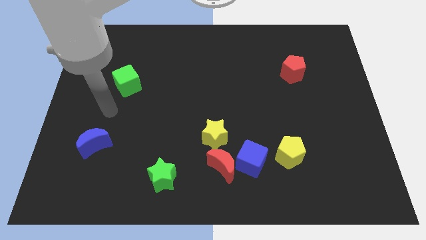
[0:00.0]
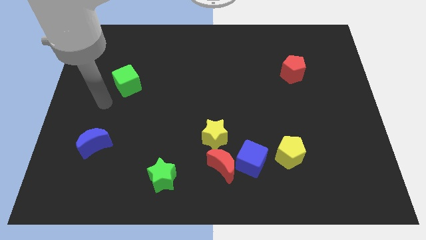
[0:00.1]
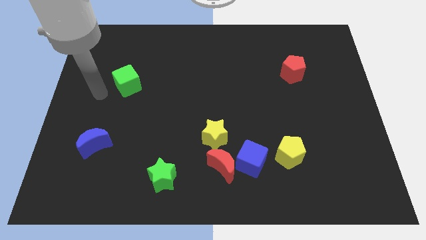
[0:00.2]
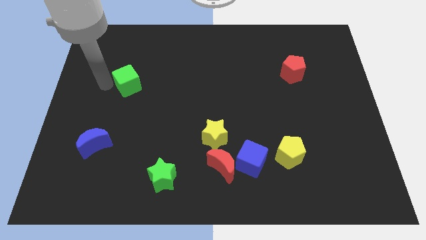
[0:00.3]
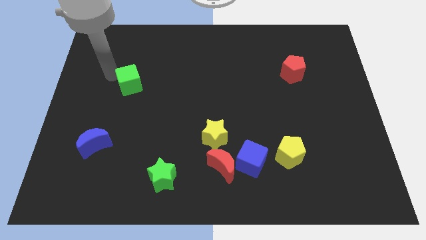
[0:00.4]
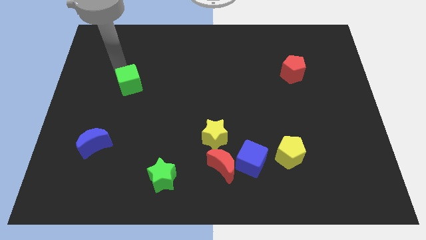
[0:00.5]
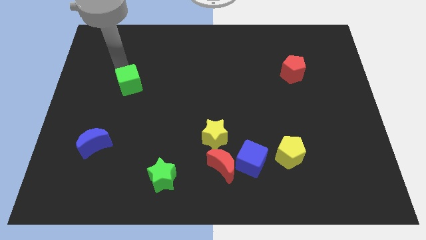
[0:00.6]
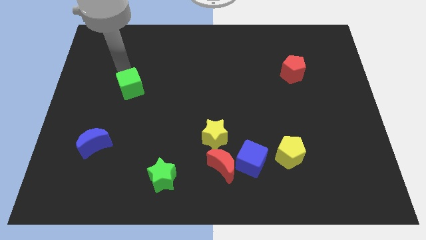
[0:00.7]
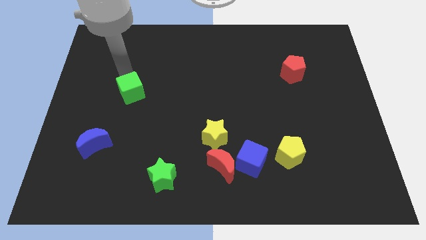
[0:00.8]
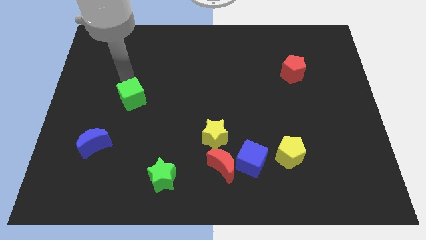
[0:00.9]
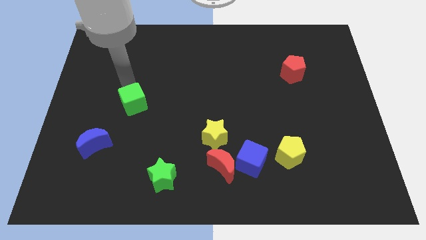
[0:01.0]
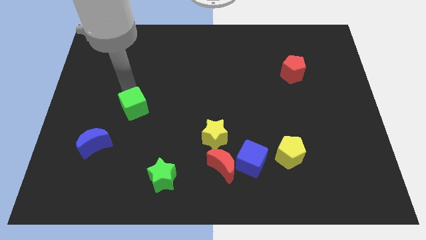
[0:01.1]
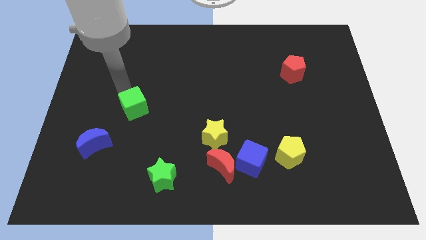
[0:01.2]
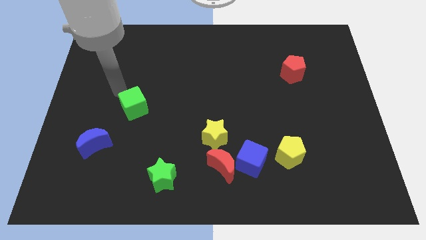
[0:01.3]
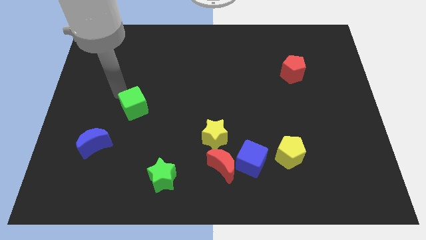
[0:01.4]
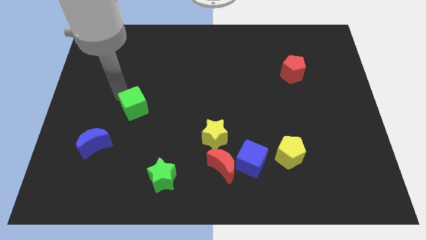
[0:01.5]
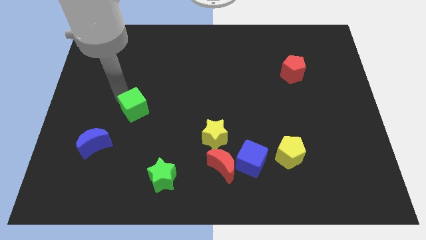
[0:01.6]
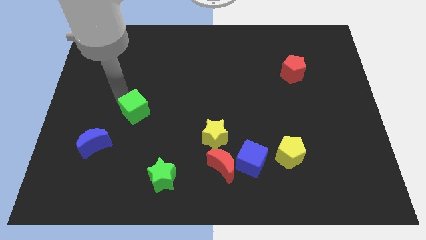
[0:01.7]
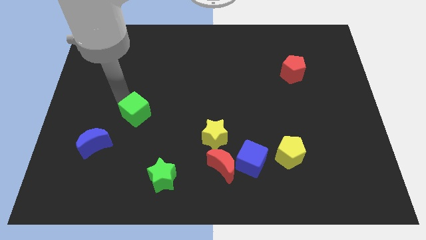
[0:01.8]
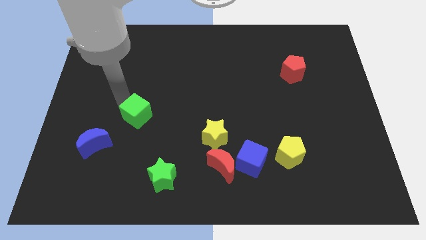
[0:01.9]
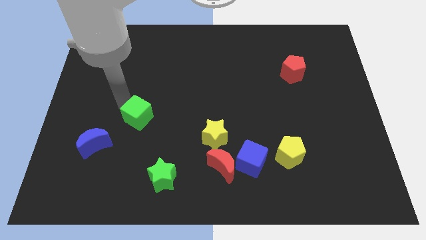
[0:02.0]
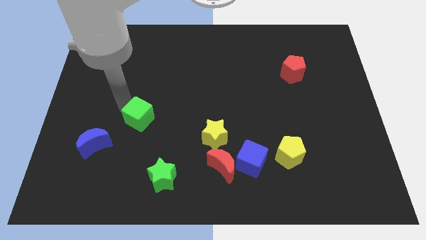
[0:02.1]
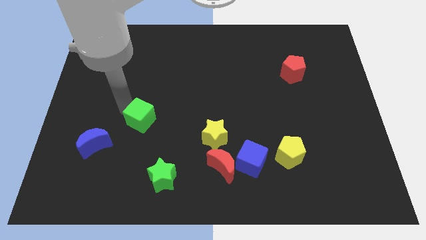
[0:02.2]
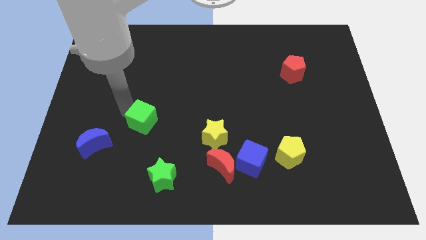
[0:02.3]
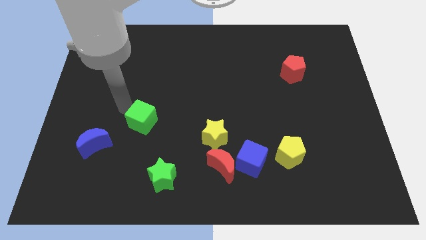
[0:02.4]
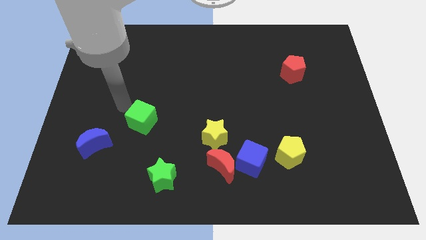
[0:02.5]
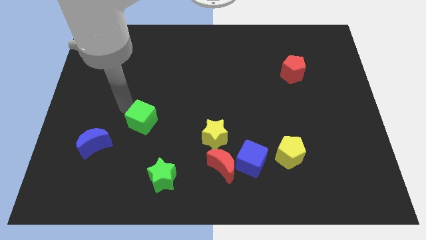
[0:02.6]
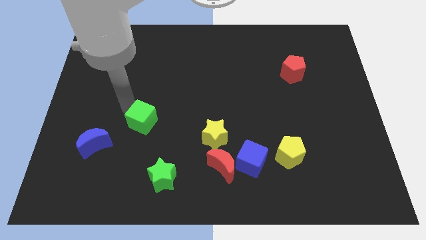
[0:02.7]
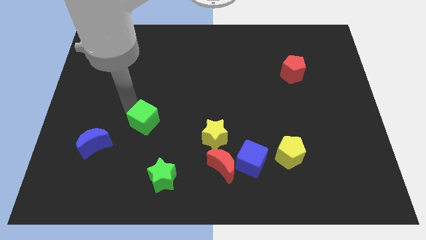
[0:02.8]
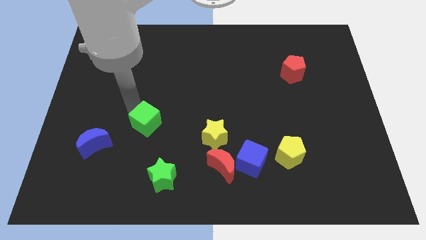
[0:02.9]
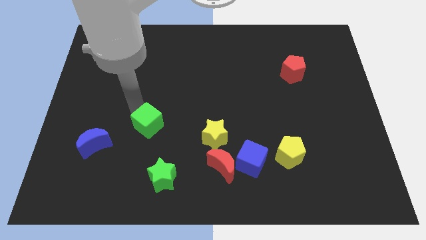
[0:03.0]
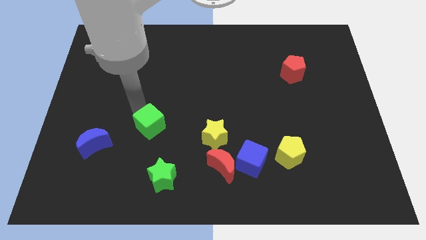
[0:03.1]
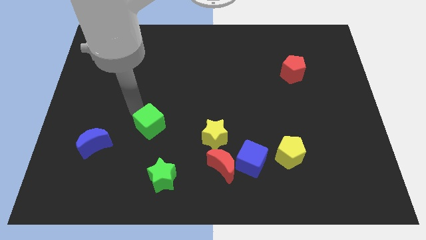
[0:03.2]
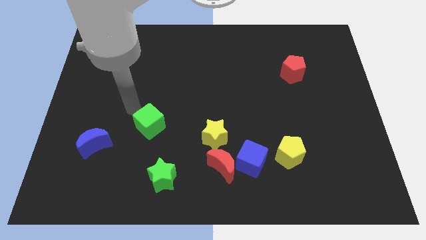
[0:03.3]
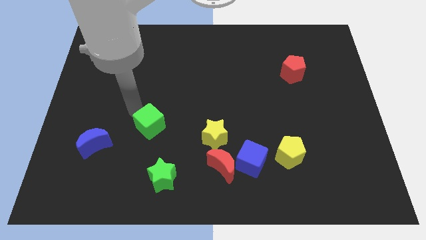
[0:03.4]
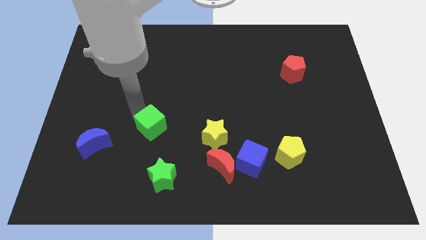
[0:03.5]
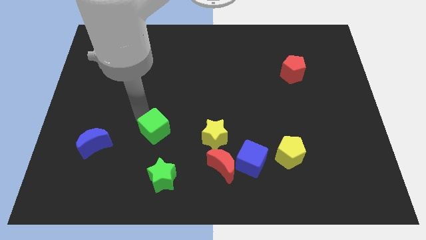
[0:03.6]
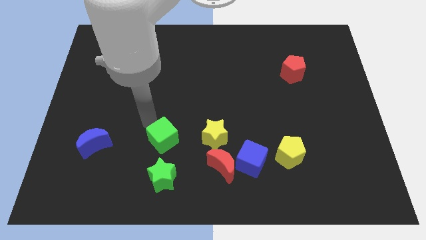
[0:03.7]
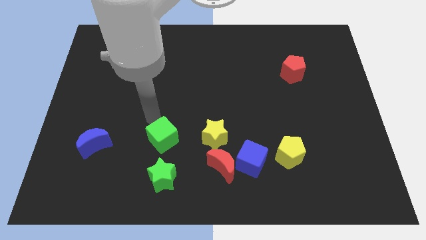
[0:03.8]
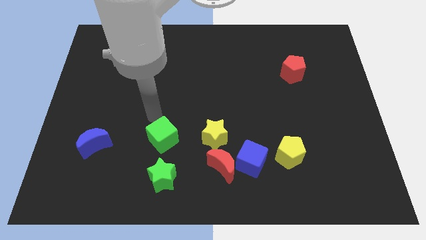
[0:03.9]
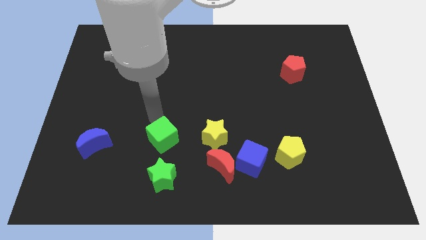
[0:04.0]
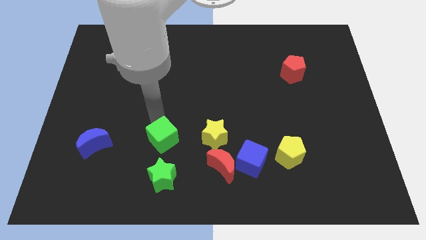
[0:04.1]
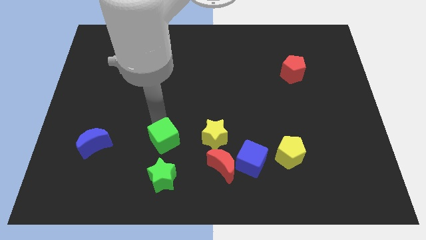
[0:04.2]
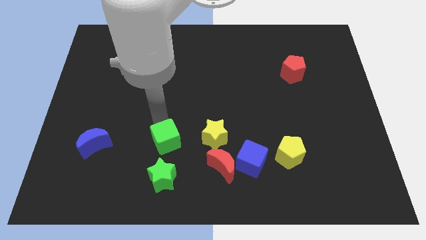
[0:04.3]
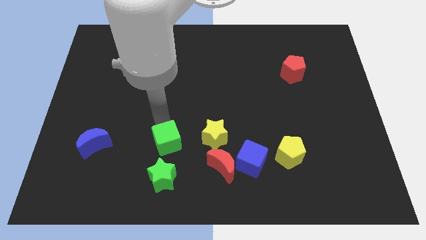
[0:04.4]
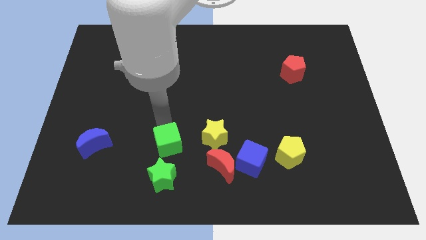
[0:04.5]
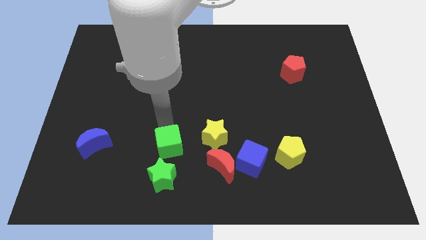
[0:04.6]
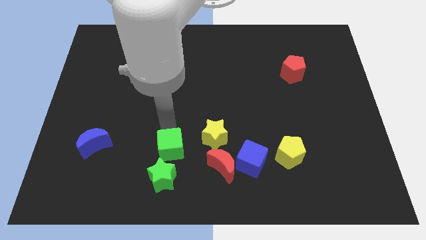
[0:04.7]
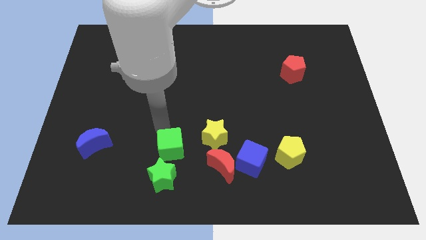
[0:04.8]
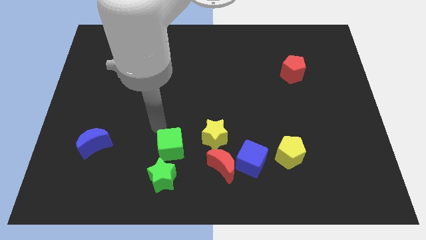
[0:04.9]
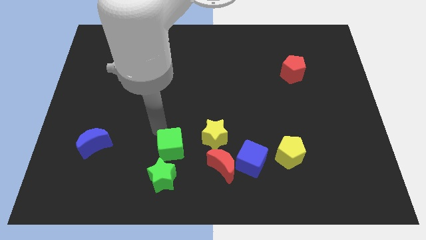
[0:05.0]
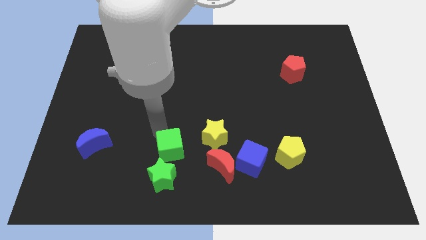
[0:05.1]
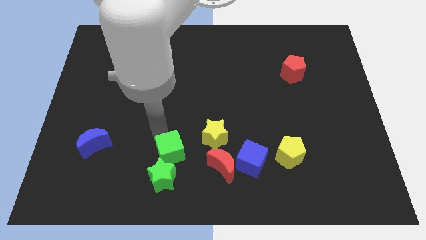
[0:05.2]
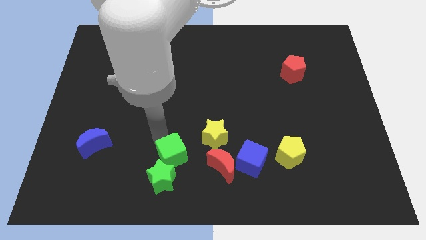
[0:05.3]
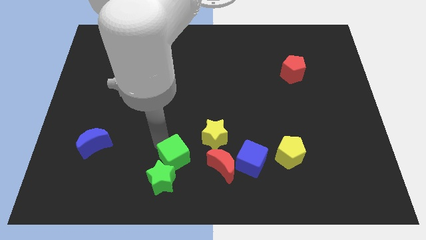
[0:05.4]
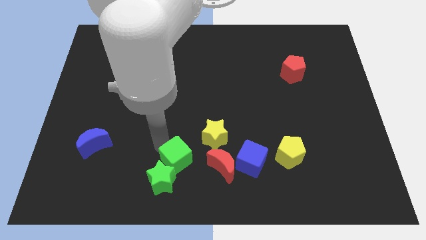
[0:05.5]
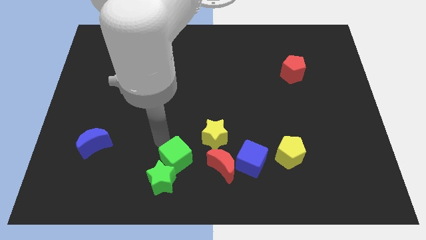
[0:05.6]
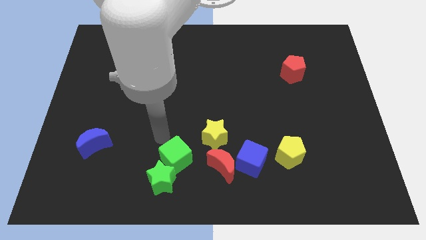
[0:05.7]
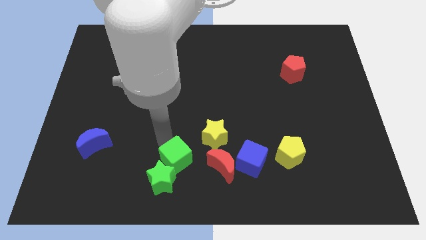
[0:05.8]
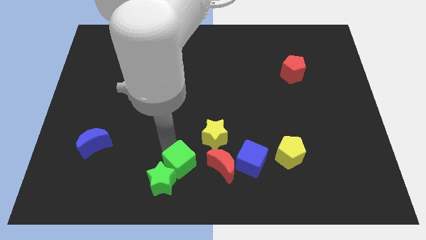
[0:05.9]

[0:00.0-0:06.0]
move the green cube to the bottom side
